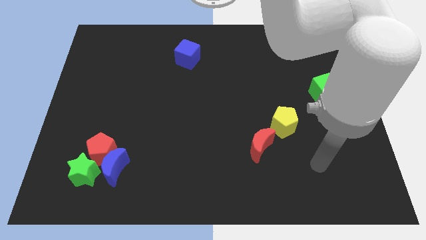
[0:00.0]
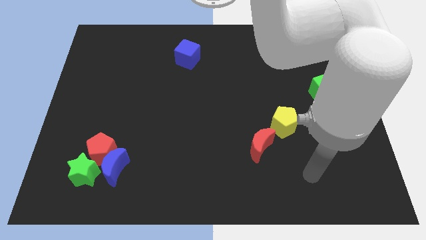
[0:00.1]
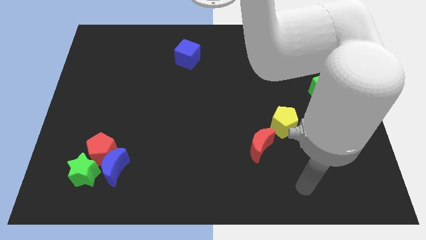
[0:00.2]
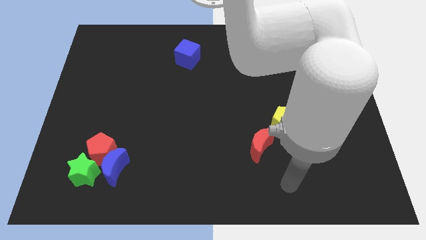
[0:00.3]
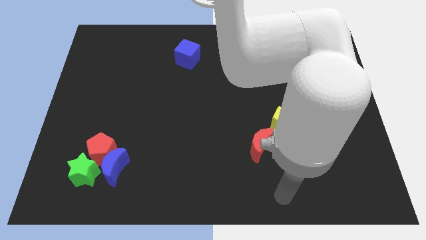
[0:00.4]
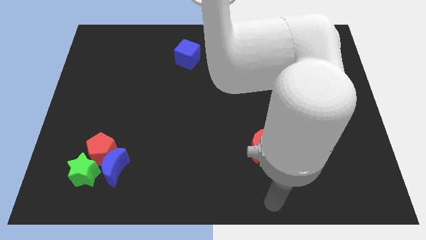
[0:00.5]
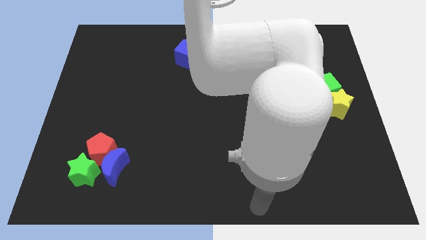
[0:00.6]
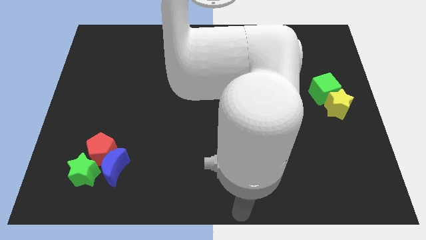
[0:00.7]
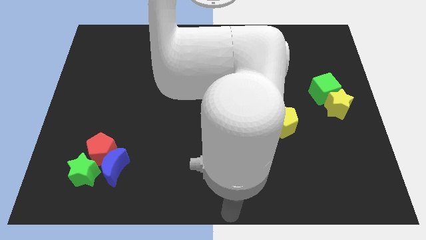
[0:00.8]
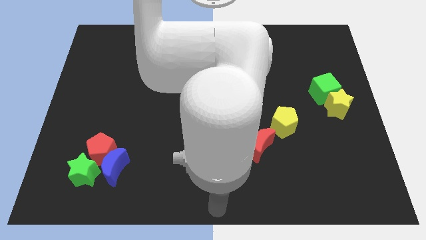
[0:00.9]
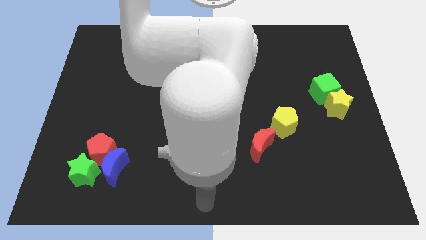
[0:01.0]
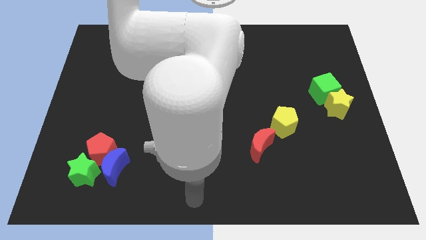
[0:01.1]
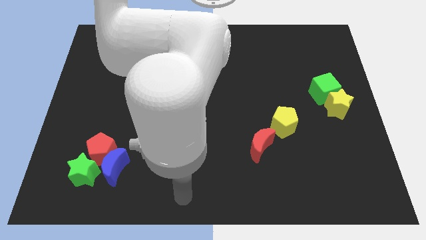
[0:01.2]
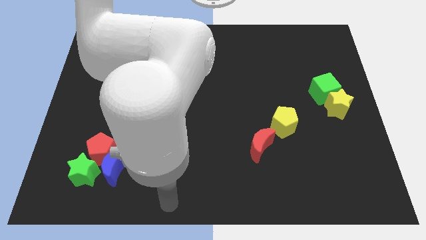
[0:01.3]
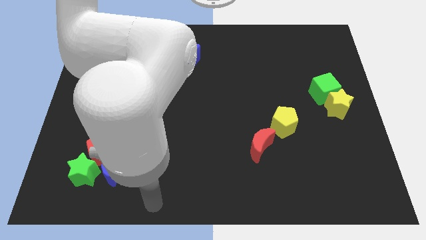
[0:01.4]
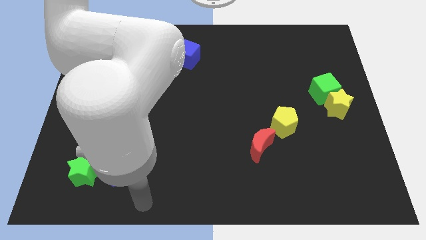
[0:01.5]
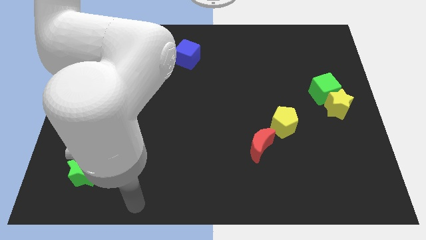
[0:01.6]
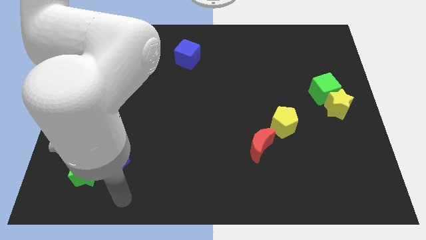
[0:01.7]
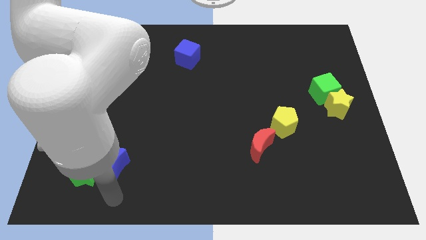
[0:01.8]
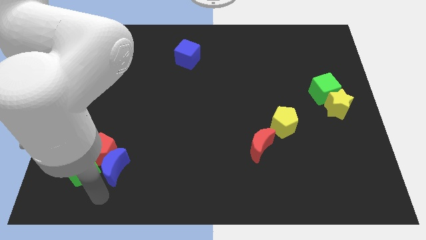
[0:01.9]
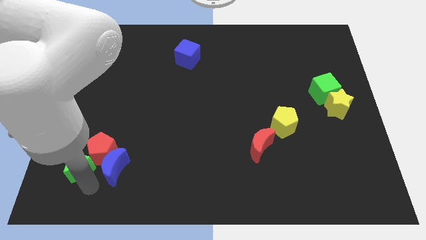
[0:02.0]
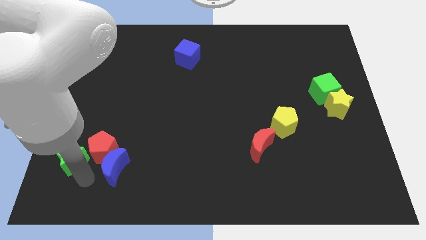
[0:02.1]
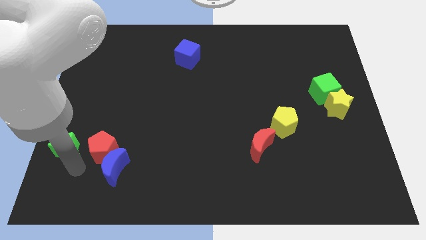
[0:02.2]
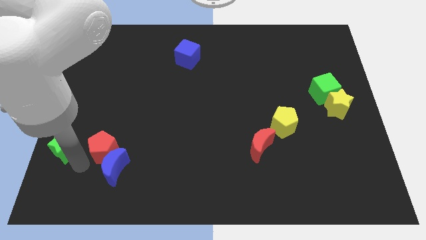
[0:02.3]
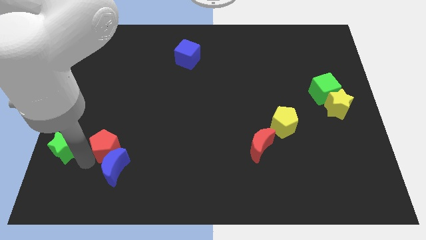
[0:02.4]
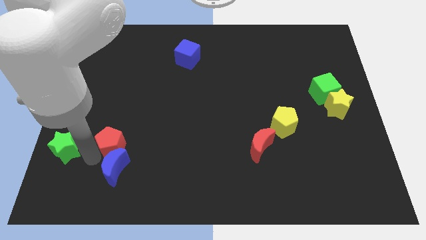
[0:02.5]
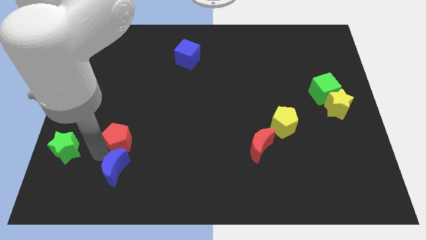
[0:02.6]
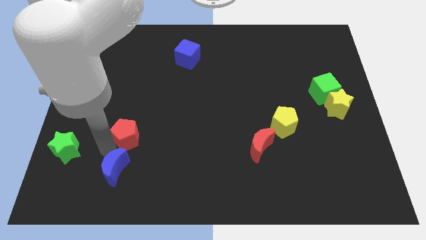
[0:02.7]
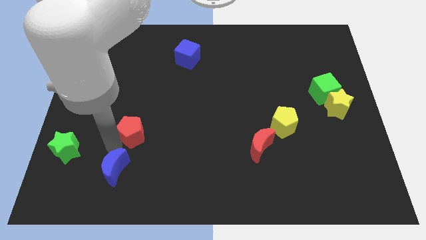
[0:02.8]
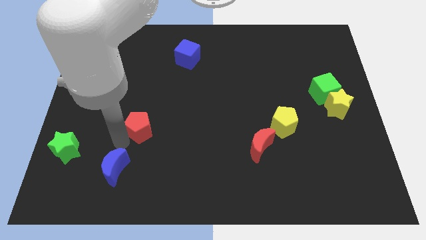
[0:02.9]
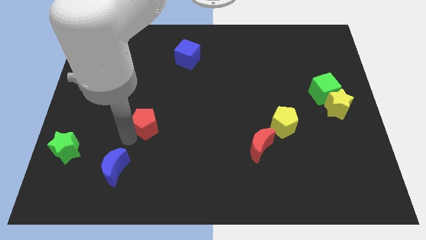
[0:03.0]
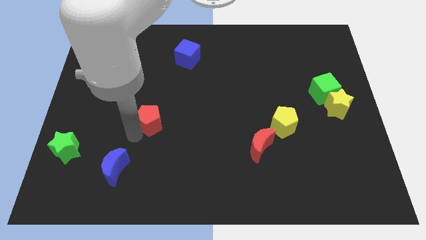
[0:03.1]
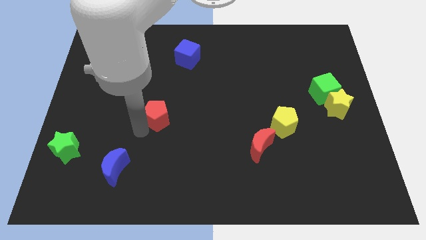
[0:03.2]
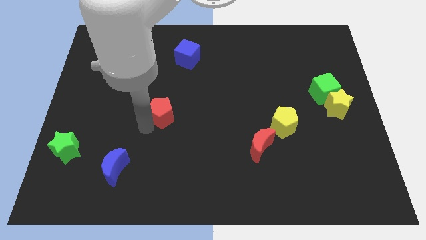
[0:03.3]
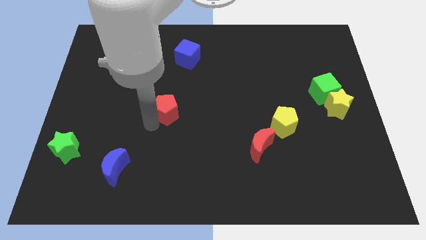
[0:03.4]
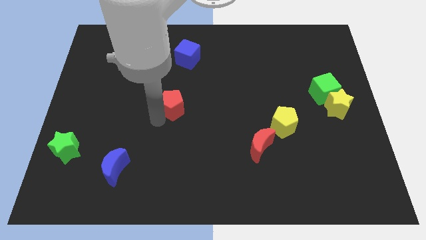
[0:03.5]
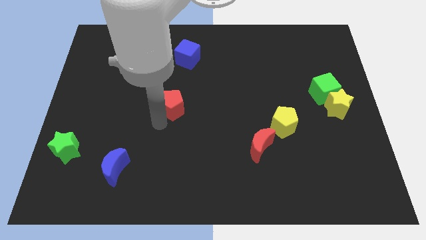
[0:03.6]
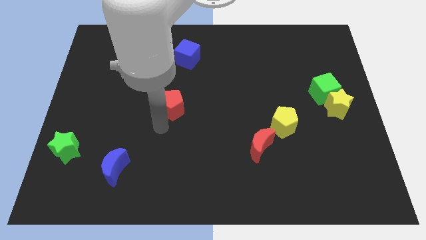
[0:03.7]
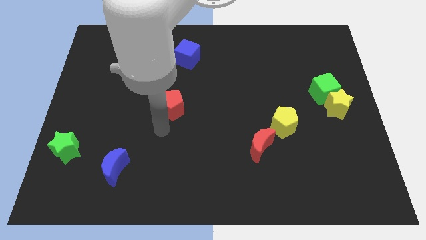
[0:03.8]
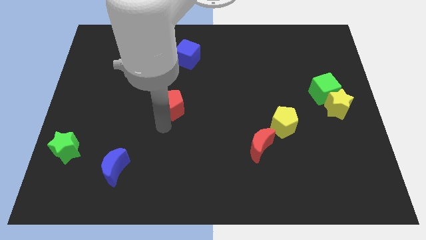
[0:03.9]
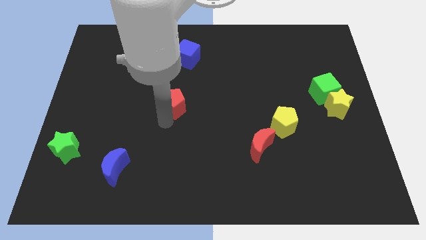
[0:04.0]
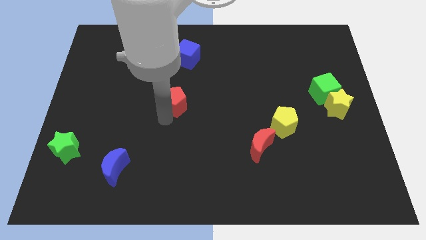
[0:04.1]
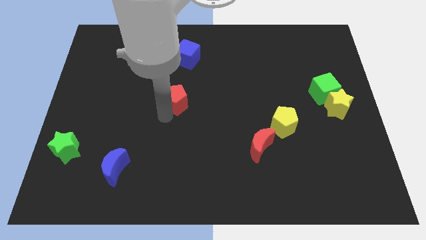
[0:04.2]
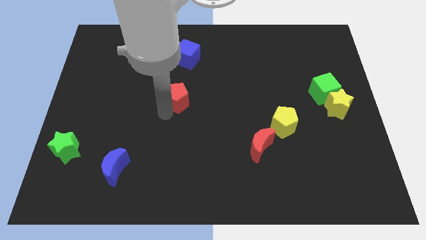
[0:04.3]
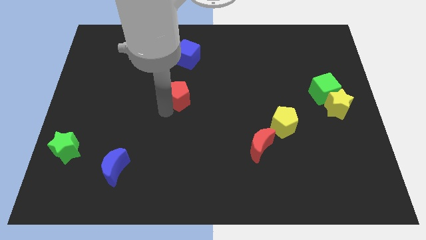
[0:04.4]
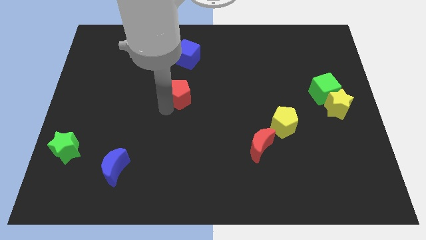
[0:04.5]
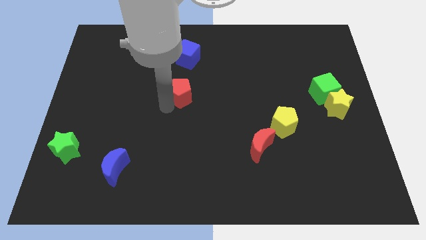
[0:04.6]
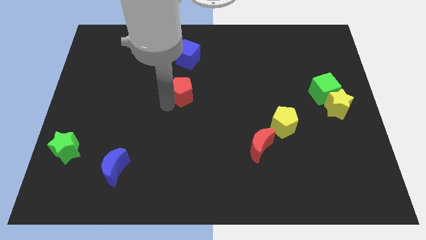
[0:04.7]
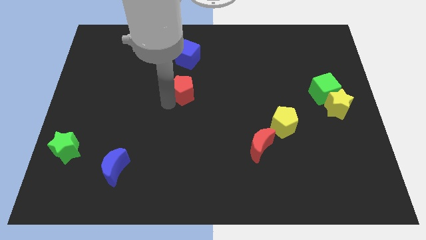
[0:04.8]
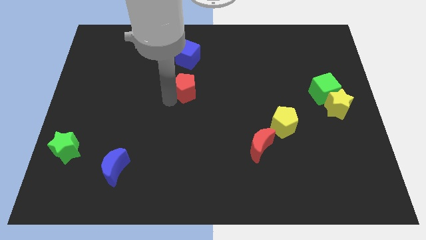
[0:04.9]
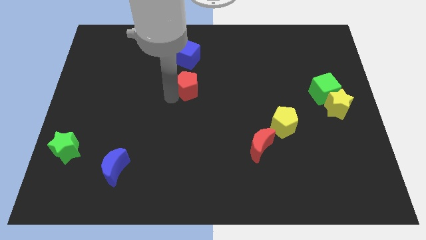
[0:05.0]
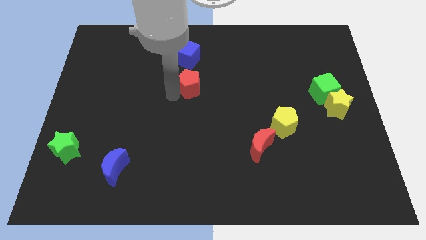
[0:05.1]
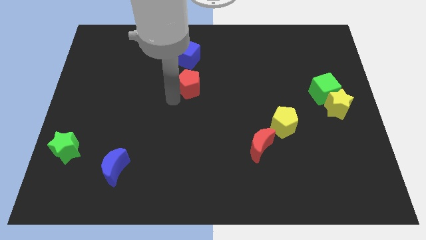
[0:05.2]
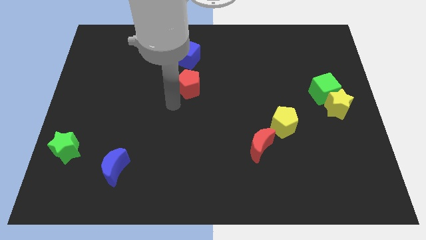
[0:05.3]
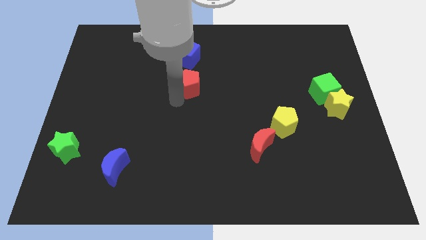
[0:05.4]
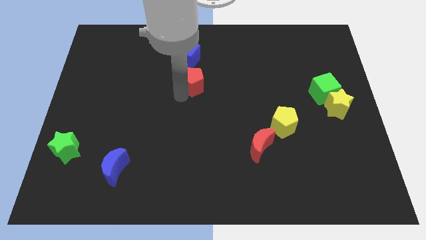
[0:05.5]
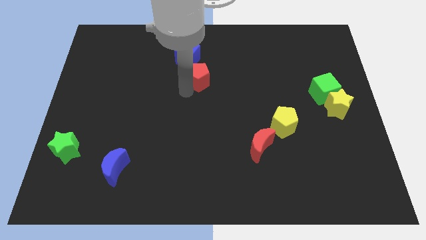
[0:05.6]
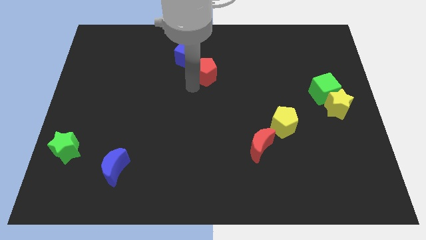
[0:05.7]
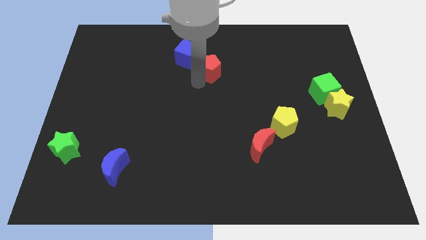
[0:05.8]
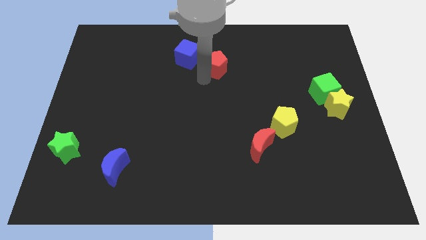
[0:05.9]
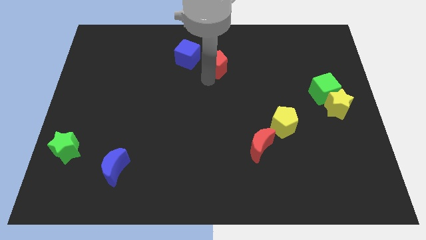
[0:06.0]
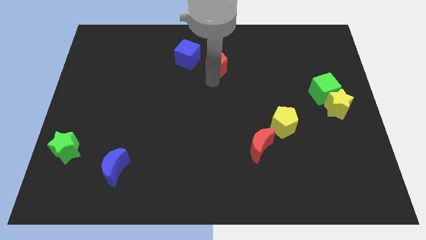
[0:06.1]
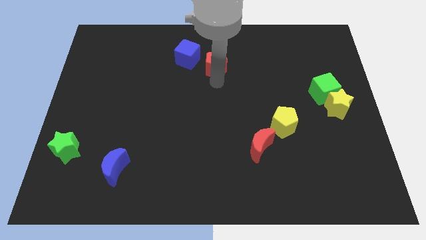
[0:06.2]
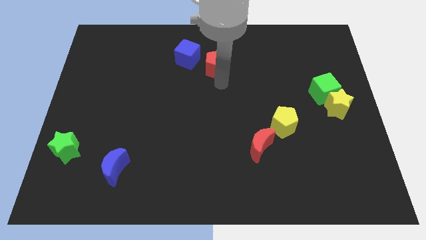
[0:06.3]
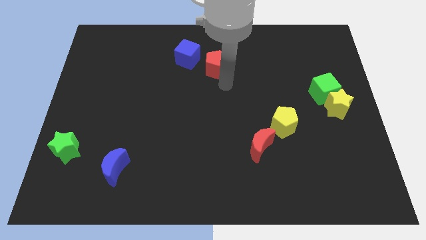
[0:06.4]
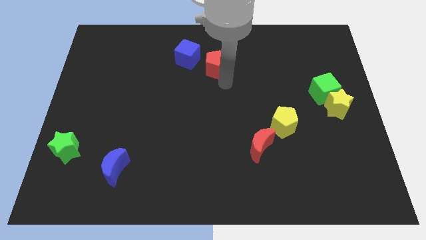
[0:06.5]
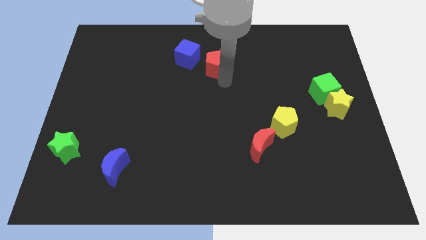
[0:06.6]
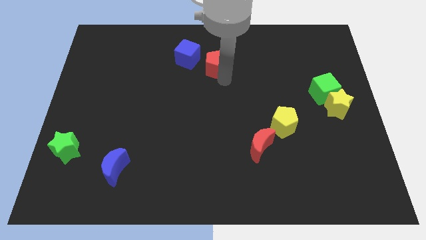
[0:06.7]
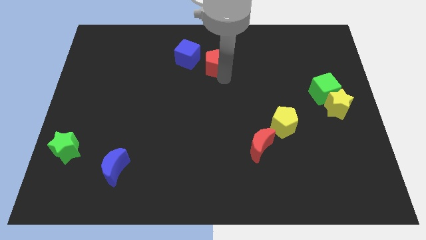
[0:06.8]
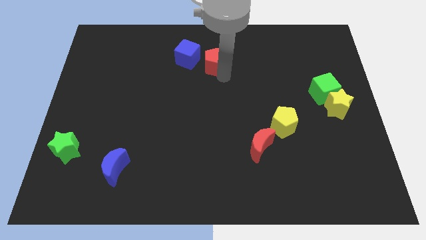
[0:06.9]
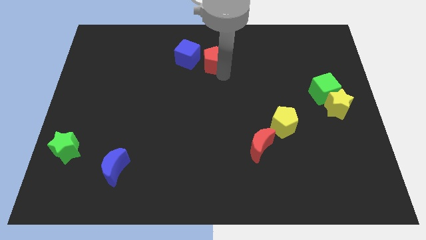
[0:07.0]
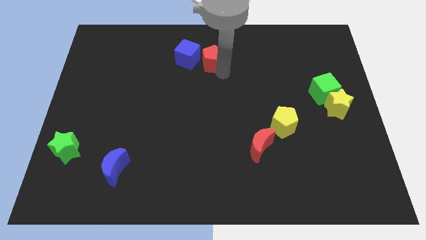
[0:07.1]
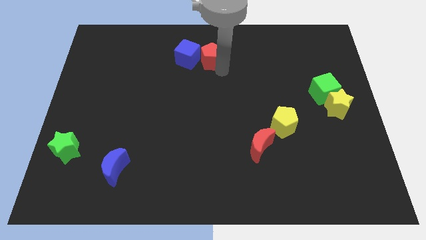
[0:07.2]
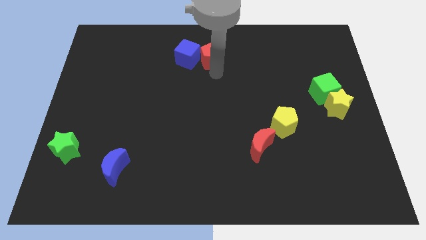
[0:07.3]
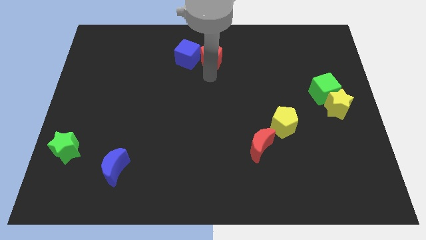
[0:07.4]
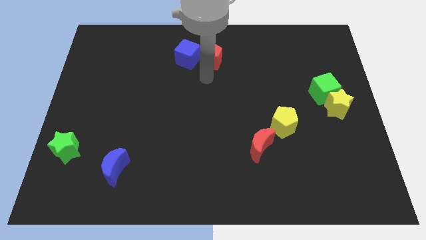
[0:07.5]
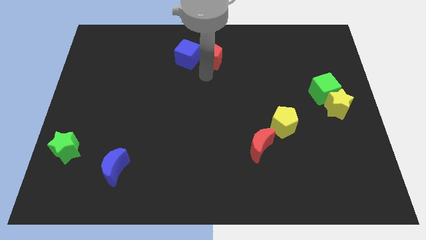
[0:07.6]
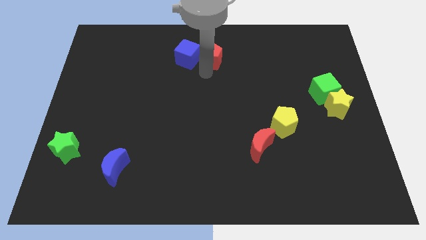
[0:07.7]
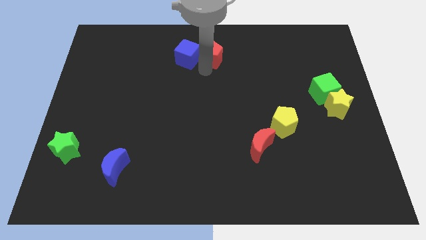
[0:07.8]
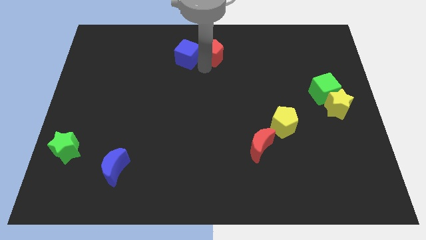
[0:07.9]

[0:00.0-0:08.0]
slide the red pentagon to the top
